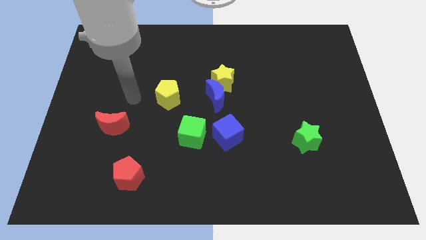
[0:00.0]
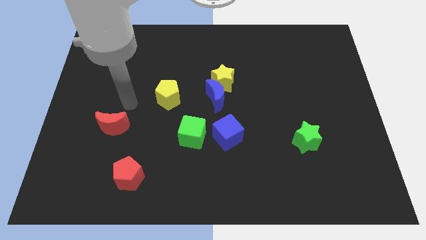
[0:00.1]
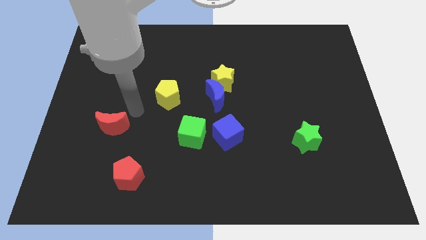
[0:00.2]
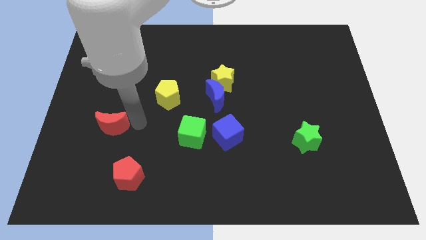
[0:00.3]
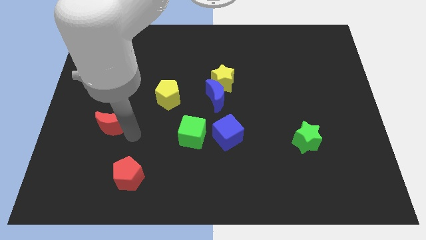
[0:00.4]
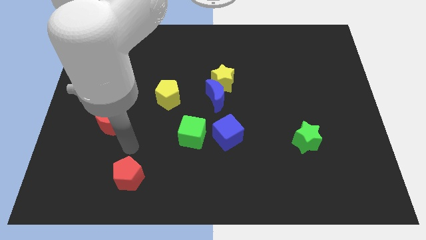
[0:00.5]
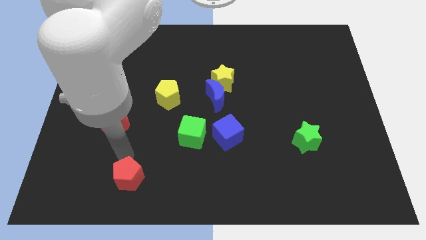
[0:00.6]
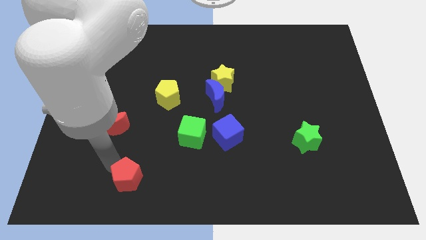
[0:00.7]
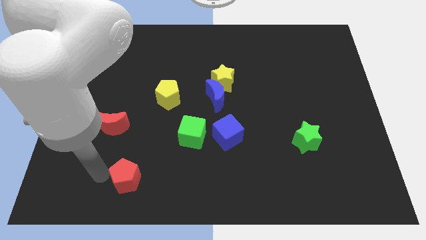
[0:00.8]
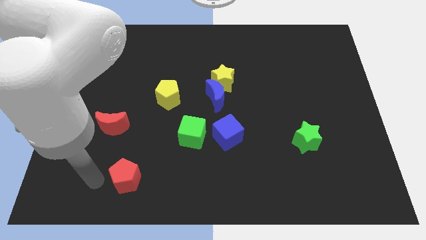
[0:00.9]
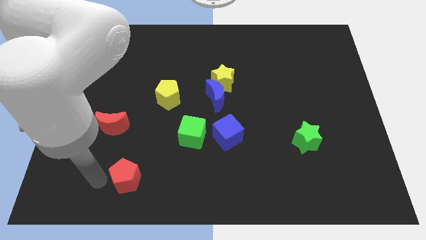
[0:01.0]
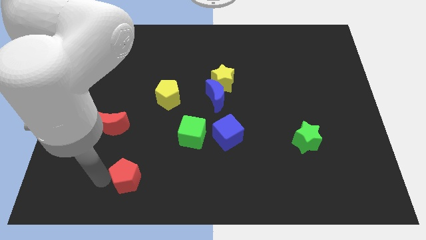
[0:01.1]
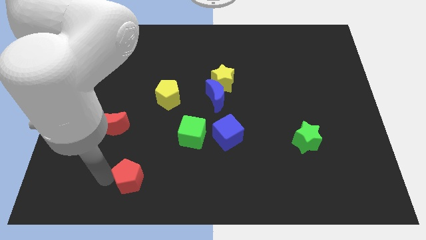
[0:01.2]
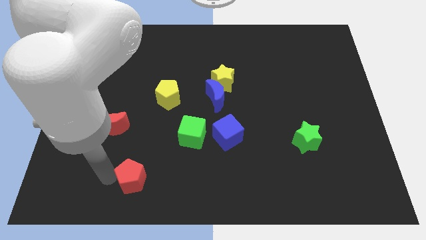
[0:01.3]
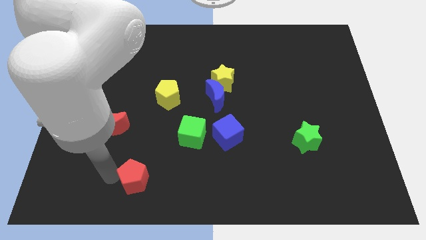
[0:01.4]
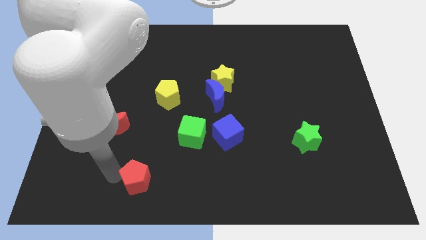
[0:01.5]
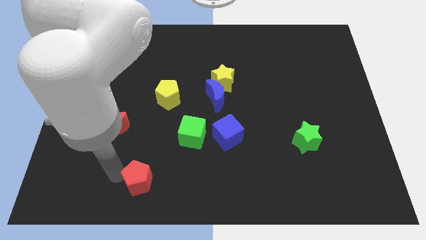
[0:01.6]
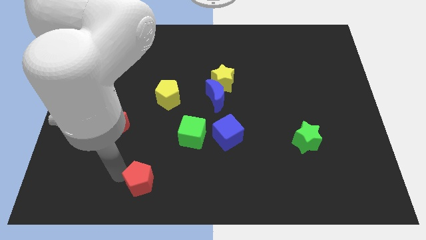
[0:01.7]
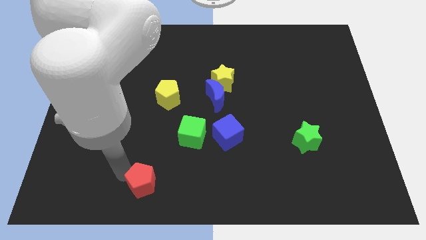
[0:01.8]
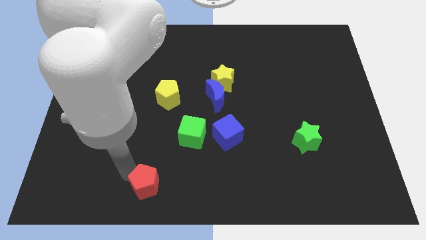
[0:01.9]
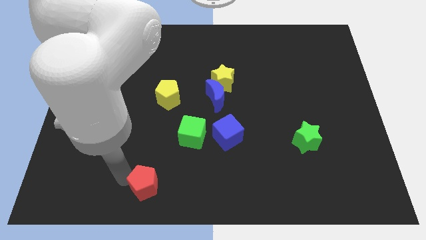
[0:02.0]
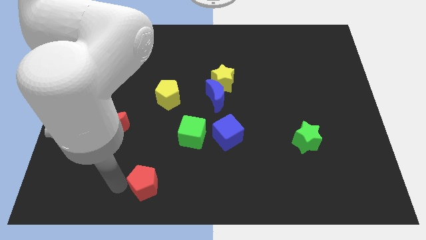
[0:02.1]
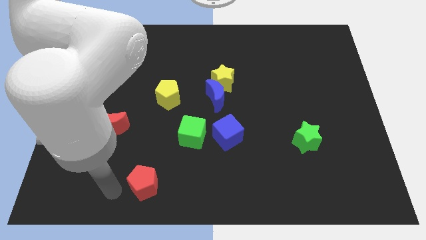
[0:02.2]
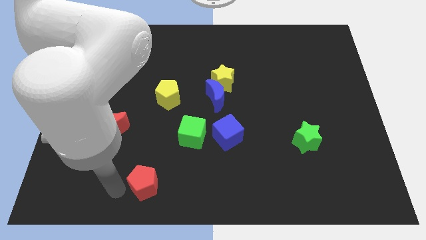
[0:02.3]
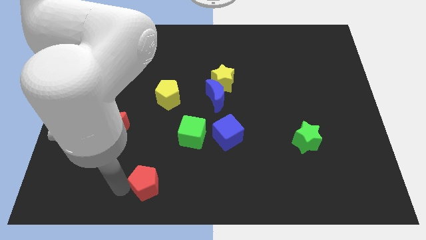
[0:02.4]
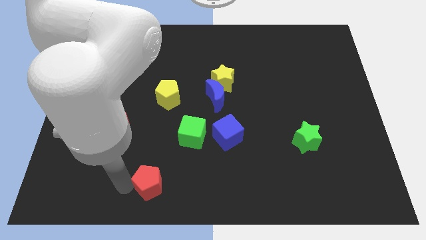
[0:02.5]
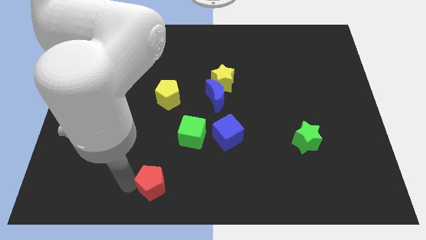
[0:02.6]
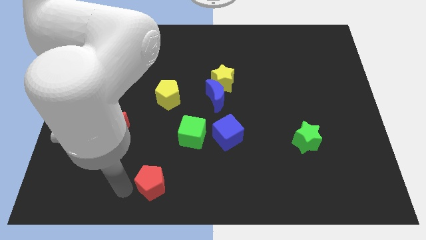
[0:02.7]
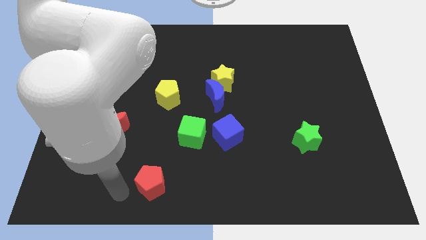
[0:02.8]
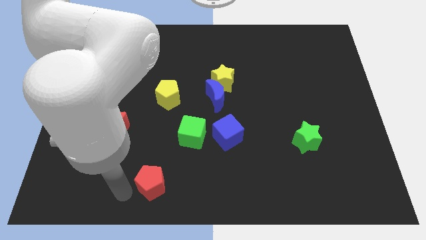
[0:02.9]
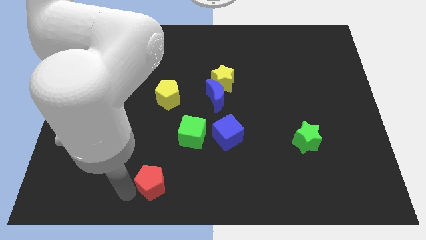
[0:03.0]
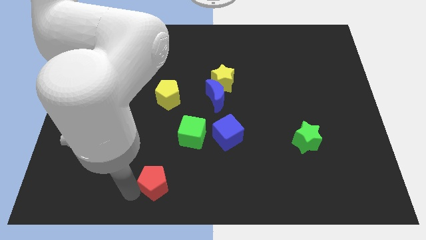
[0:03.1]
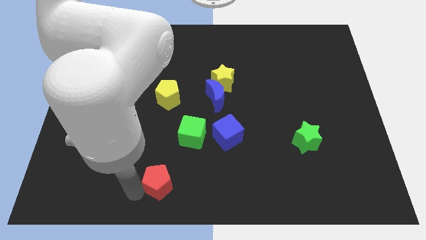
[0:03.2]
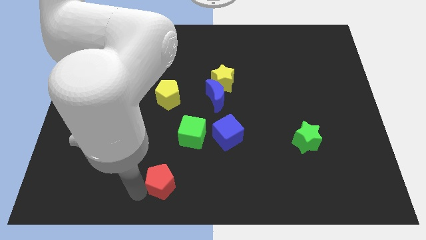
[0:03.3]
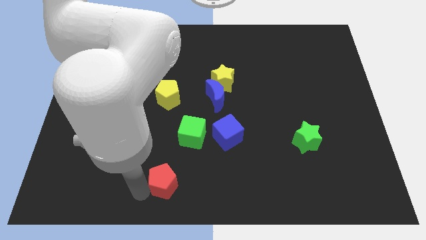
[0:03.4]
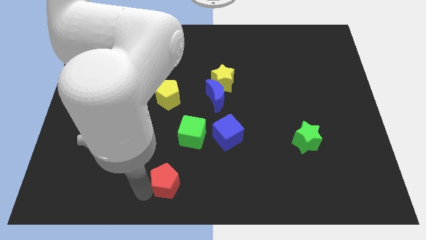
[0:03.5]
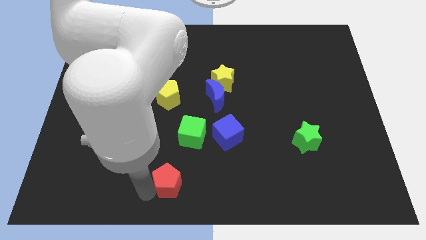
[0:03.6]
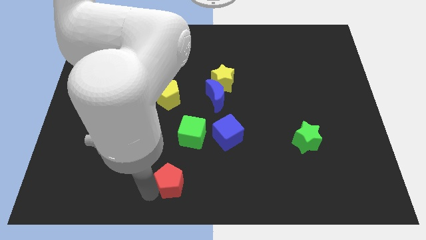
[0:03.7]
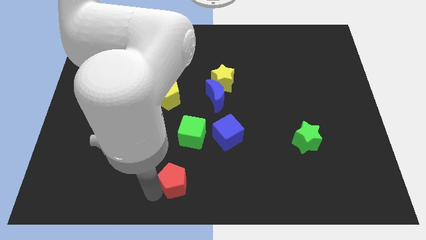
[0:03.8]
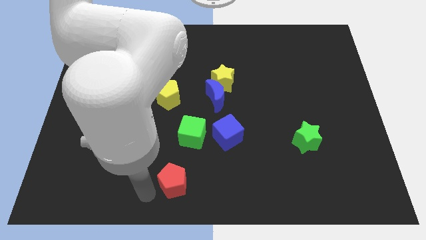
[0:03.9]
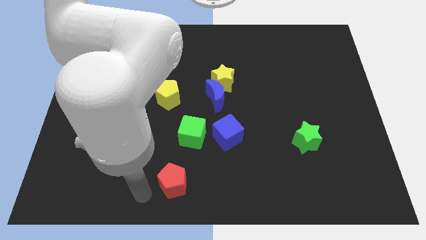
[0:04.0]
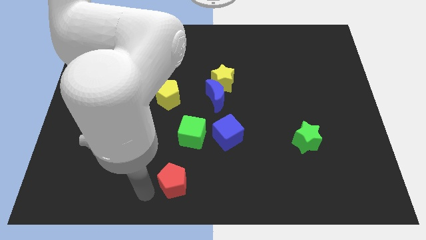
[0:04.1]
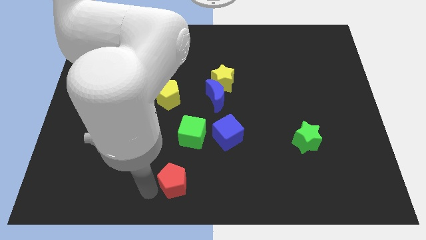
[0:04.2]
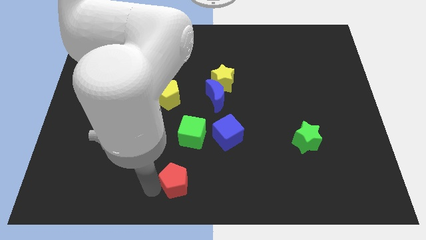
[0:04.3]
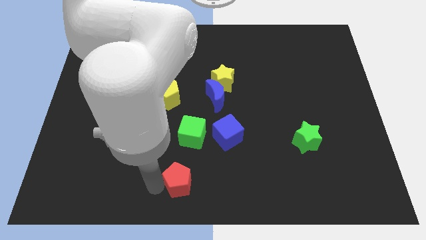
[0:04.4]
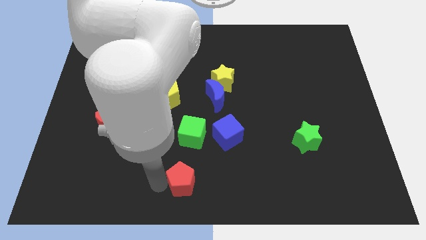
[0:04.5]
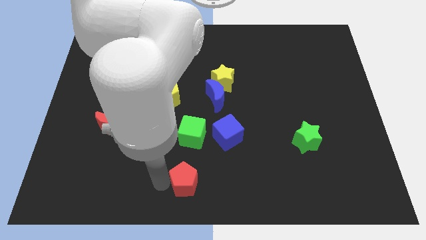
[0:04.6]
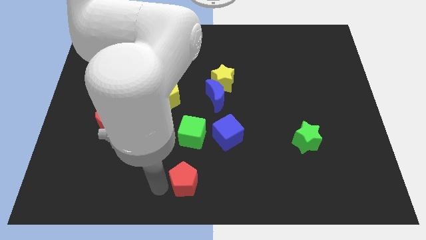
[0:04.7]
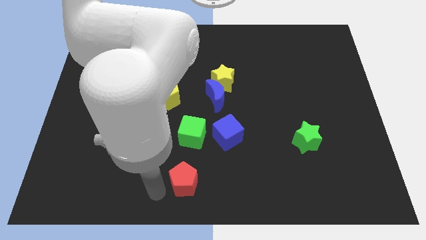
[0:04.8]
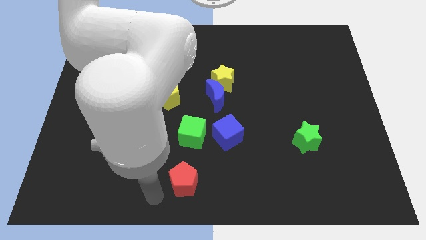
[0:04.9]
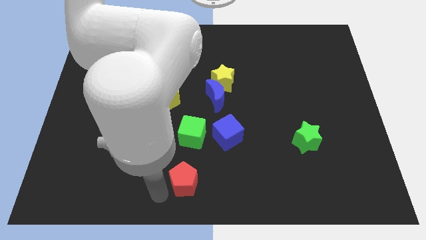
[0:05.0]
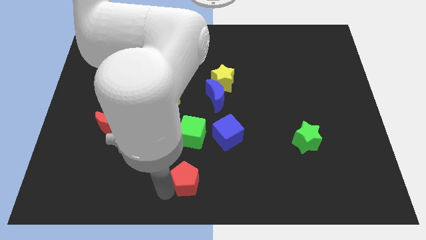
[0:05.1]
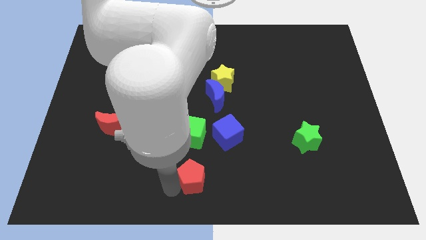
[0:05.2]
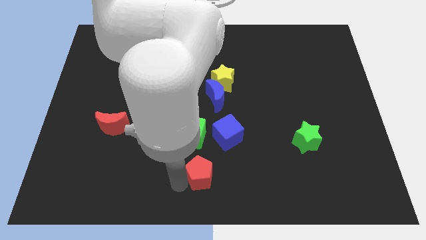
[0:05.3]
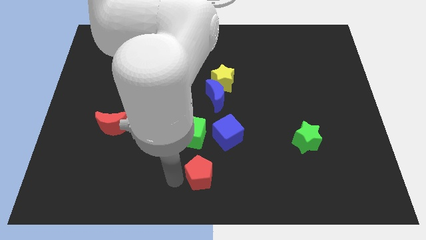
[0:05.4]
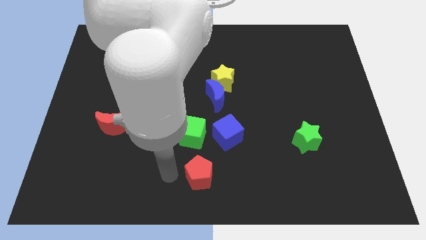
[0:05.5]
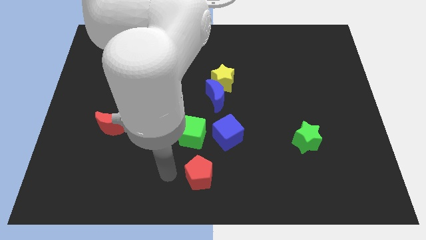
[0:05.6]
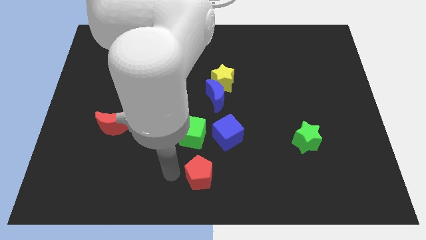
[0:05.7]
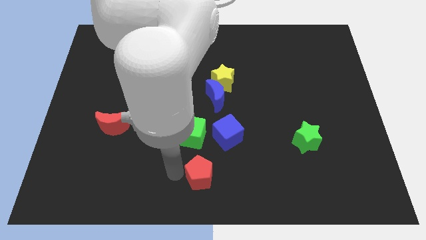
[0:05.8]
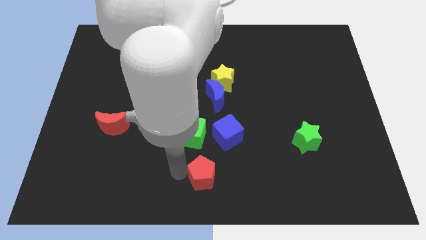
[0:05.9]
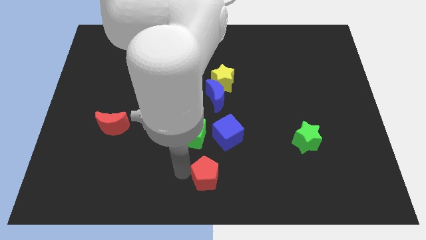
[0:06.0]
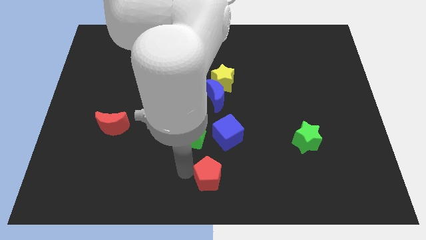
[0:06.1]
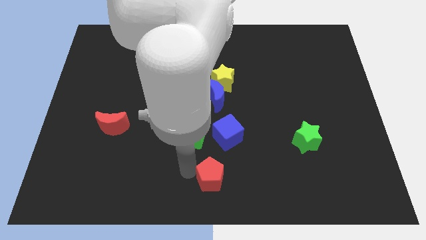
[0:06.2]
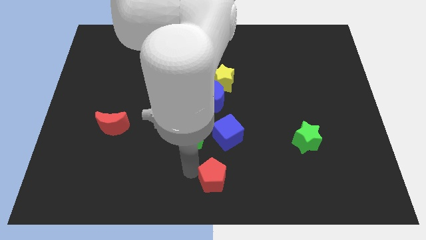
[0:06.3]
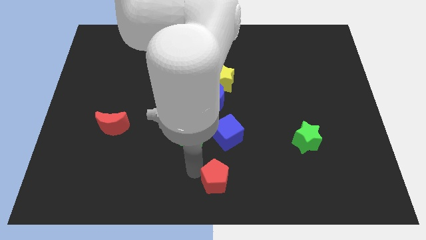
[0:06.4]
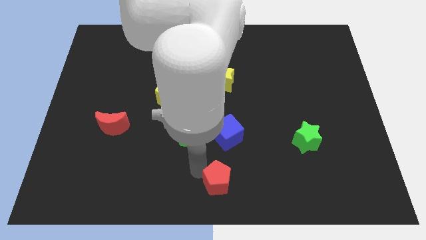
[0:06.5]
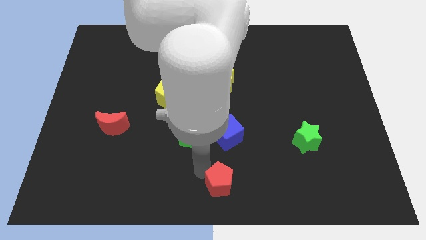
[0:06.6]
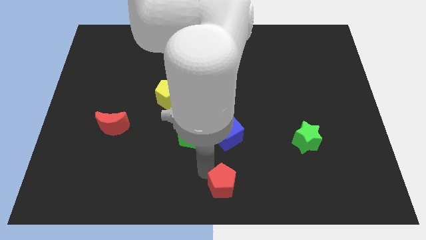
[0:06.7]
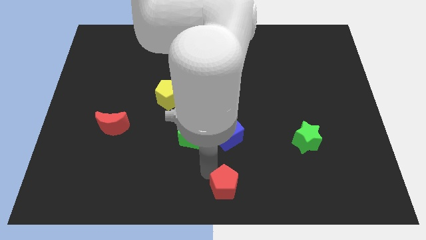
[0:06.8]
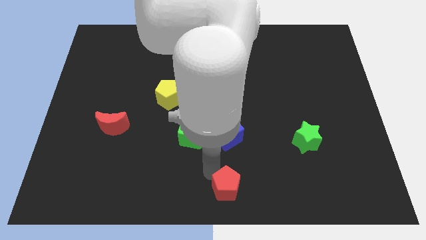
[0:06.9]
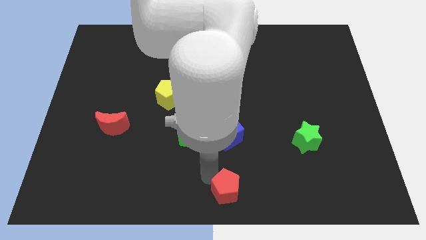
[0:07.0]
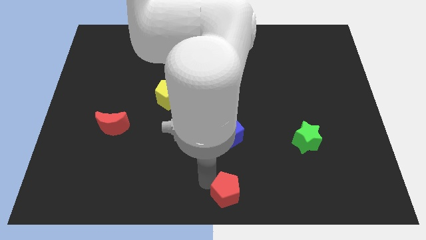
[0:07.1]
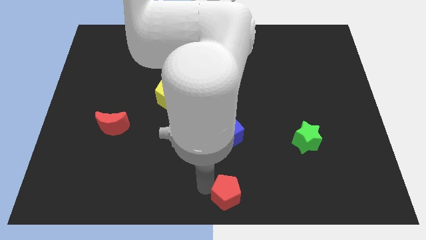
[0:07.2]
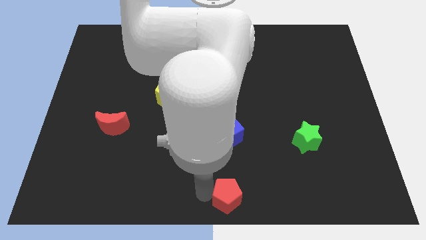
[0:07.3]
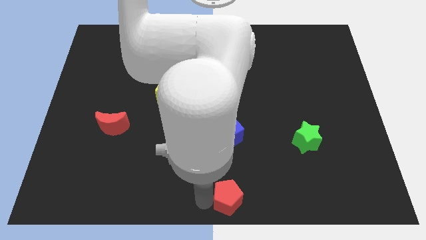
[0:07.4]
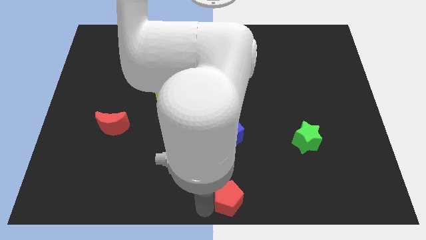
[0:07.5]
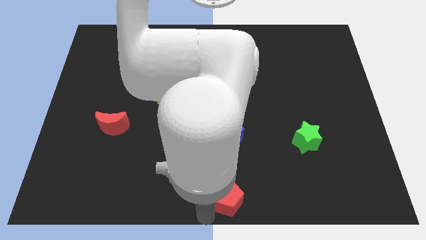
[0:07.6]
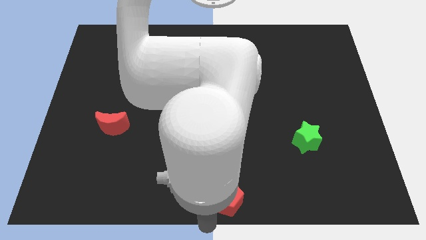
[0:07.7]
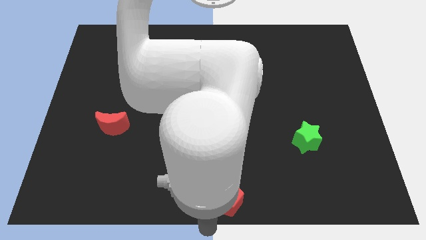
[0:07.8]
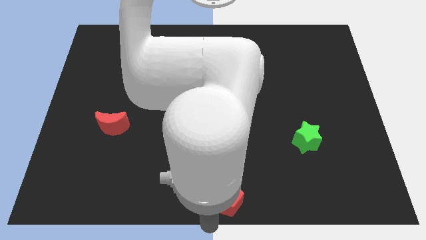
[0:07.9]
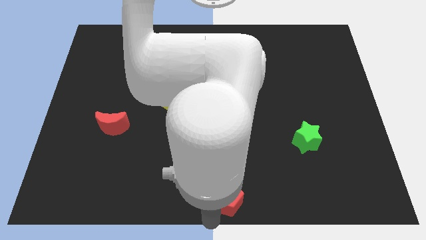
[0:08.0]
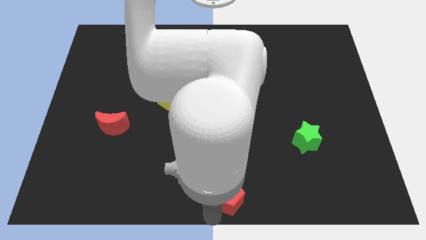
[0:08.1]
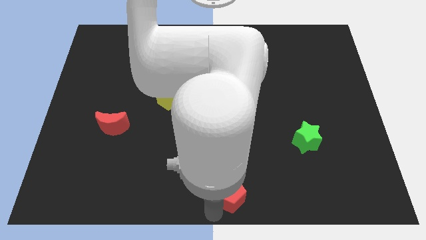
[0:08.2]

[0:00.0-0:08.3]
slide the red pentagon to the right

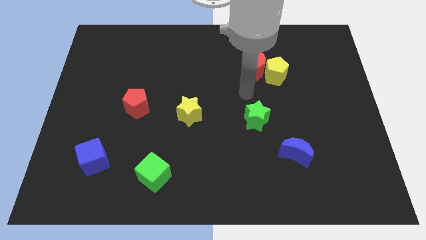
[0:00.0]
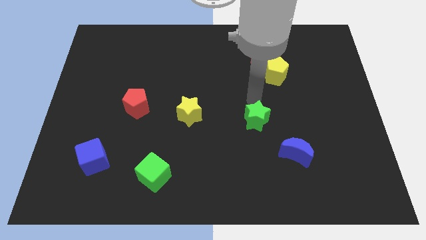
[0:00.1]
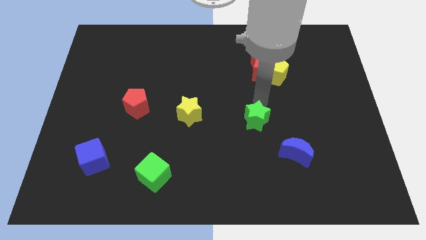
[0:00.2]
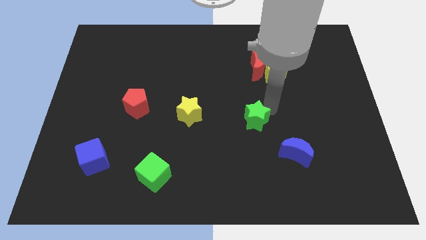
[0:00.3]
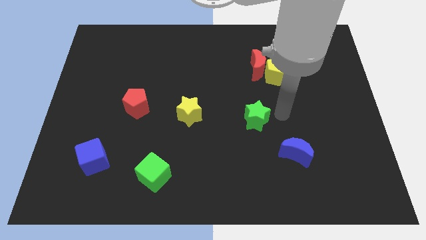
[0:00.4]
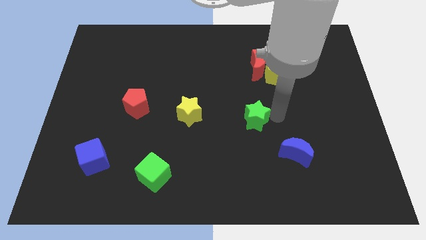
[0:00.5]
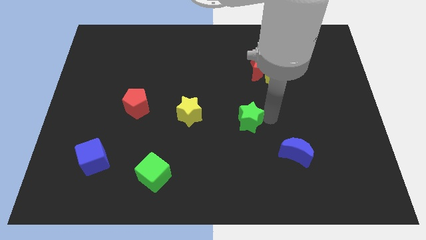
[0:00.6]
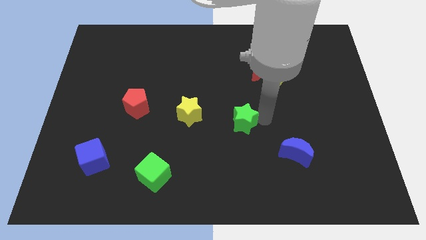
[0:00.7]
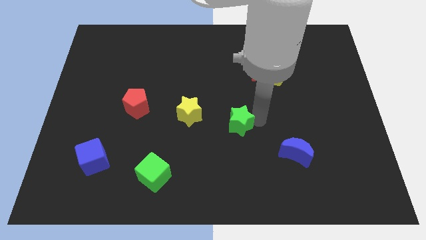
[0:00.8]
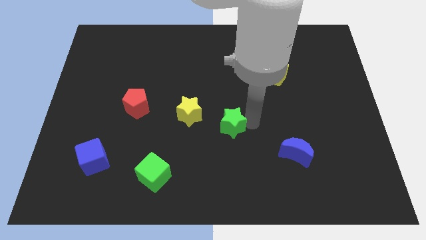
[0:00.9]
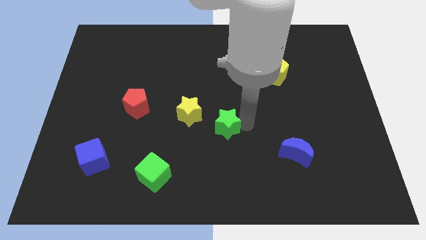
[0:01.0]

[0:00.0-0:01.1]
push the green star to the left a little
